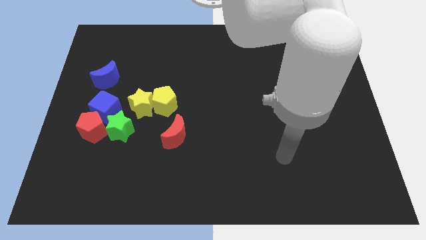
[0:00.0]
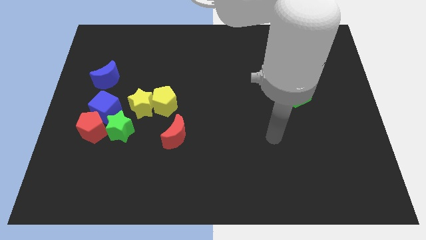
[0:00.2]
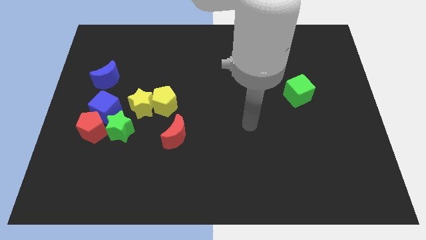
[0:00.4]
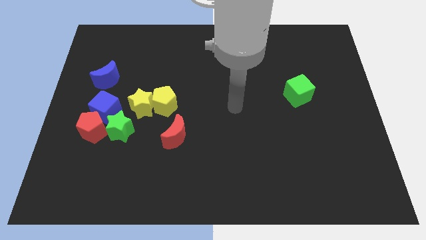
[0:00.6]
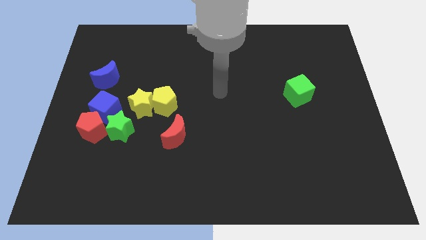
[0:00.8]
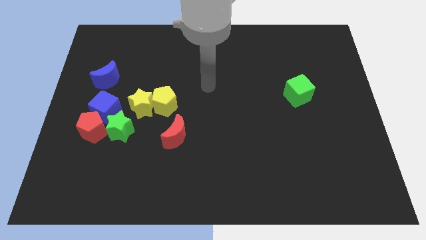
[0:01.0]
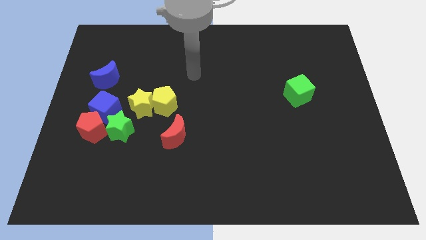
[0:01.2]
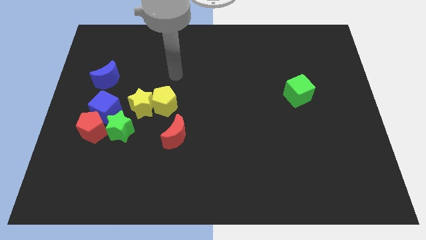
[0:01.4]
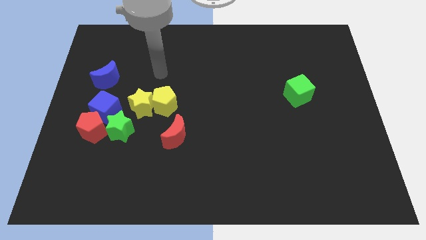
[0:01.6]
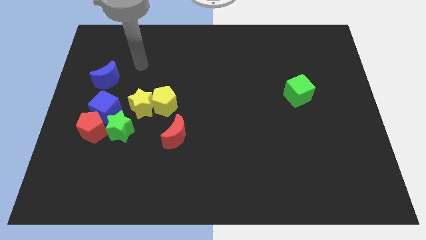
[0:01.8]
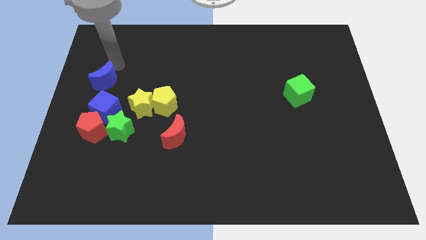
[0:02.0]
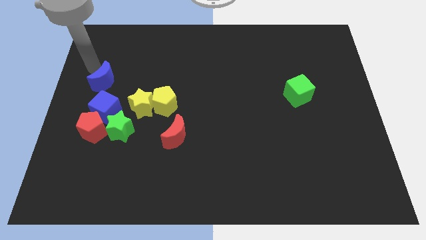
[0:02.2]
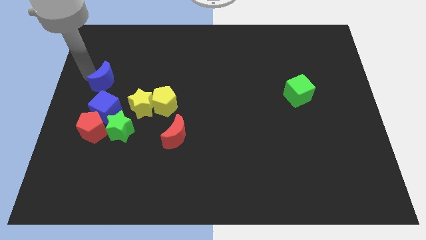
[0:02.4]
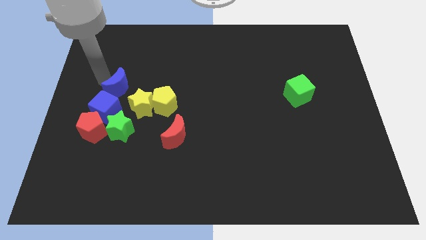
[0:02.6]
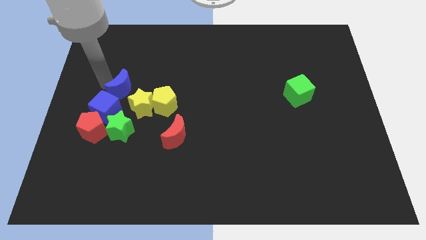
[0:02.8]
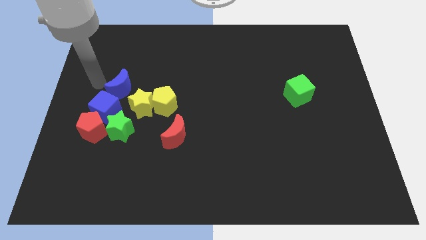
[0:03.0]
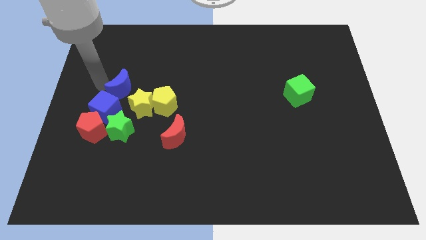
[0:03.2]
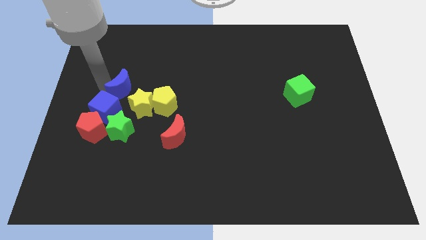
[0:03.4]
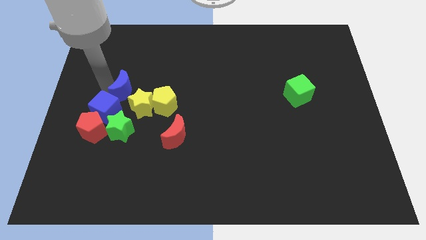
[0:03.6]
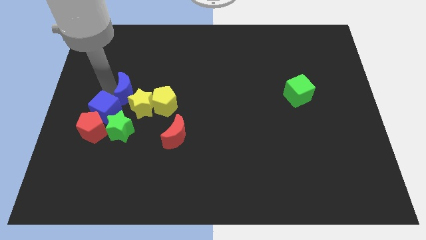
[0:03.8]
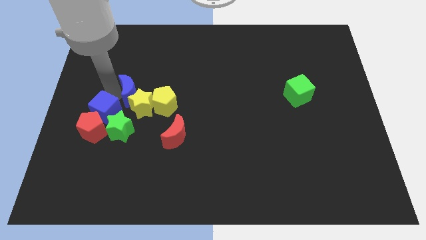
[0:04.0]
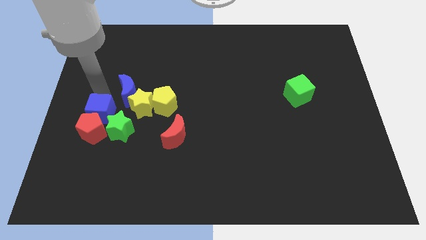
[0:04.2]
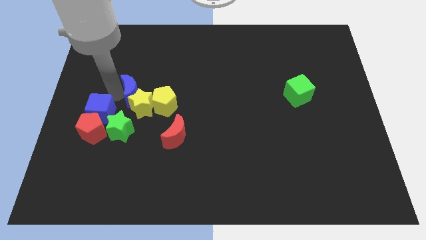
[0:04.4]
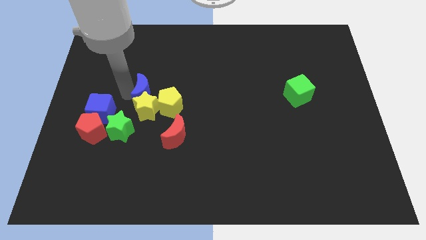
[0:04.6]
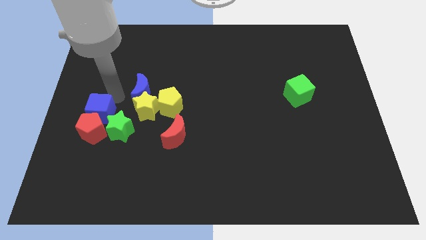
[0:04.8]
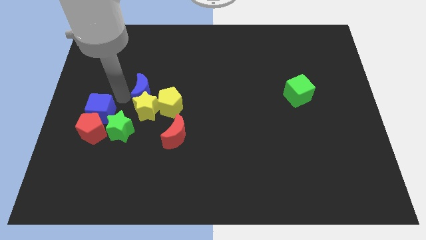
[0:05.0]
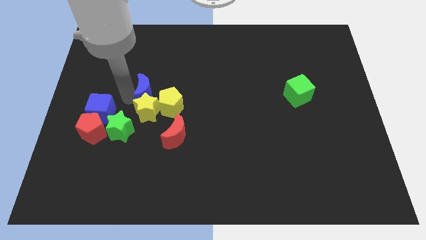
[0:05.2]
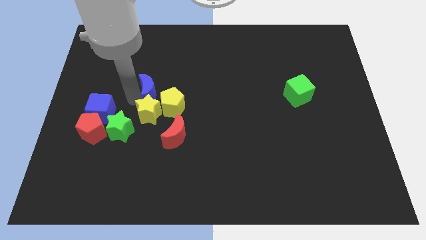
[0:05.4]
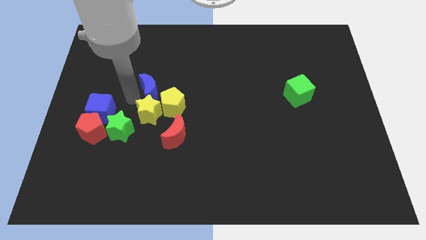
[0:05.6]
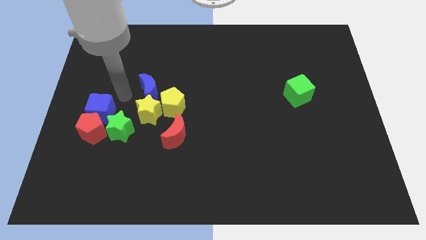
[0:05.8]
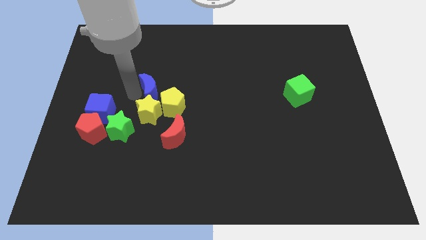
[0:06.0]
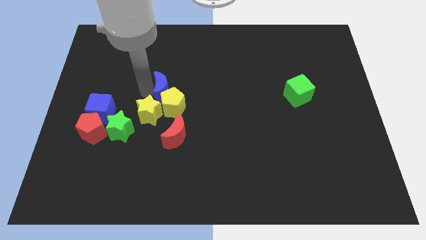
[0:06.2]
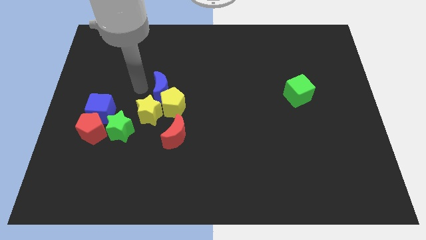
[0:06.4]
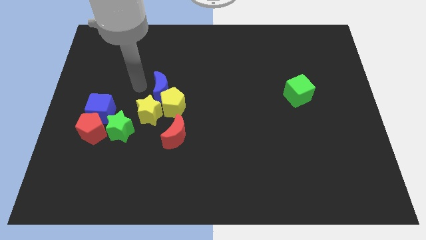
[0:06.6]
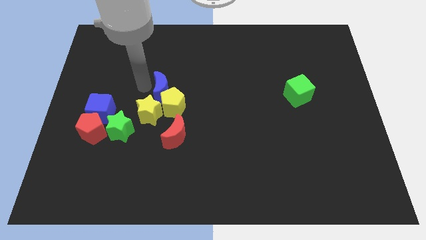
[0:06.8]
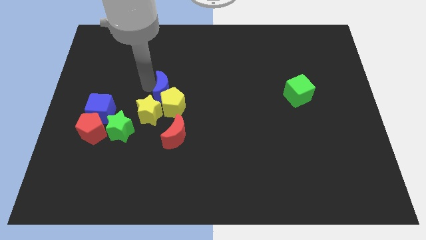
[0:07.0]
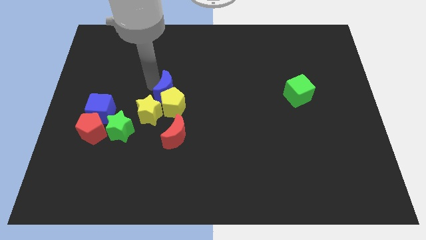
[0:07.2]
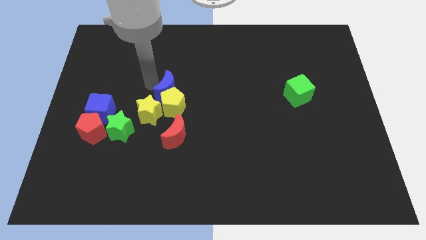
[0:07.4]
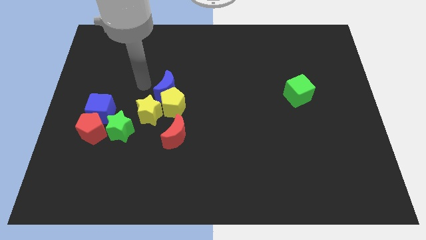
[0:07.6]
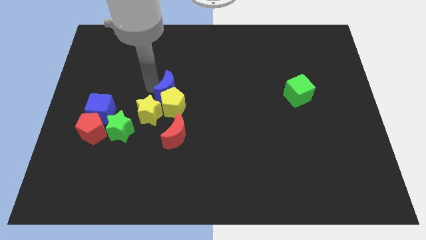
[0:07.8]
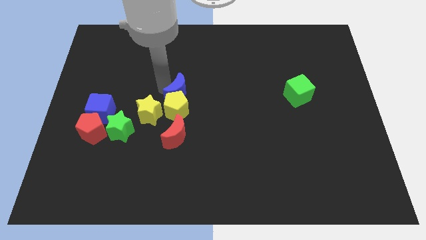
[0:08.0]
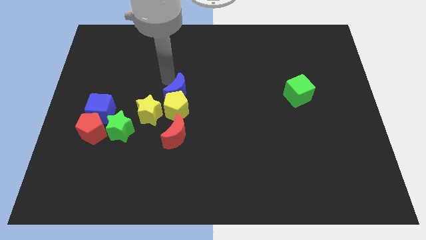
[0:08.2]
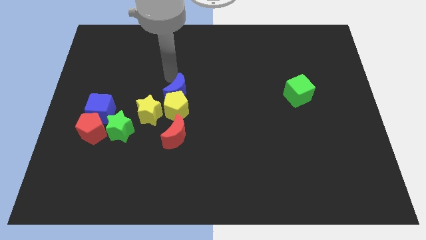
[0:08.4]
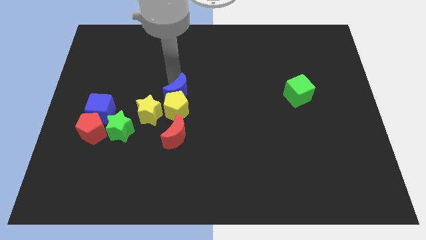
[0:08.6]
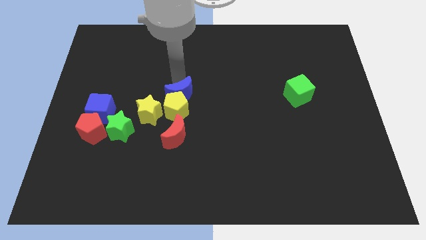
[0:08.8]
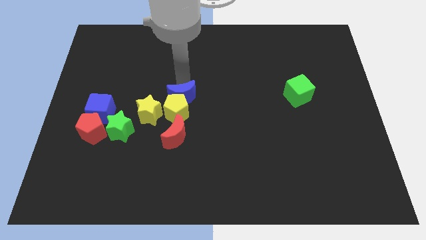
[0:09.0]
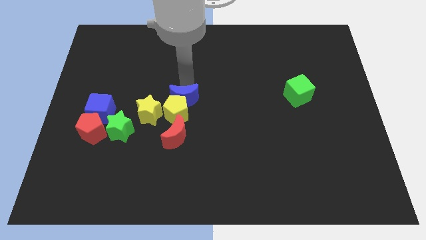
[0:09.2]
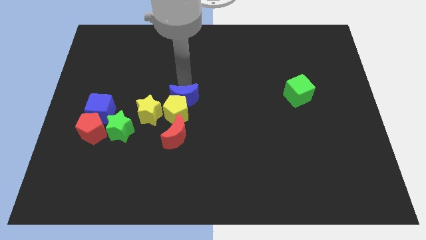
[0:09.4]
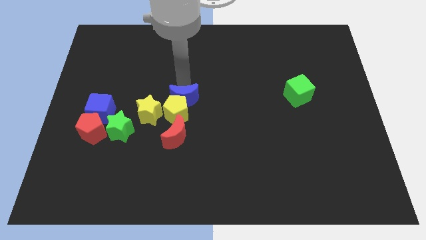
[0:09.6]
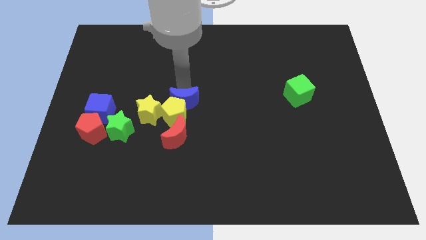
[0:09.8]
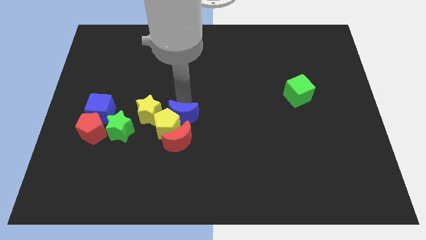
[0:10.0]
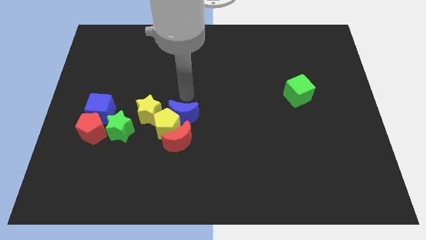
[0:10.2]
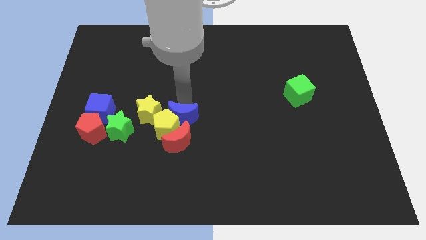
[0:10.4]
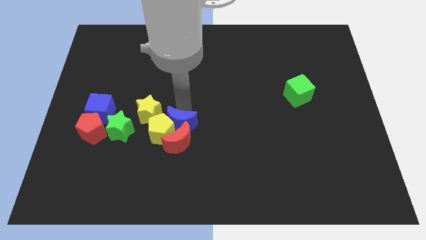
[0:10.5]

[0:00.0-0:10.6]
put the blue moon towards the red moon

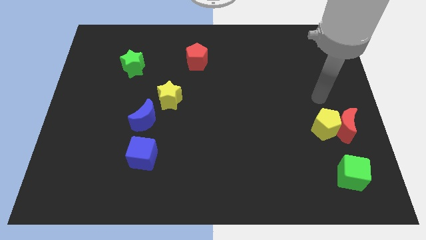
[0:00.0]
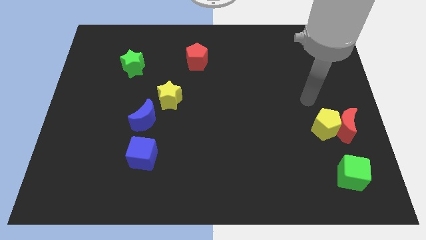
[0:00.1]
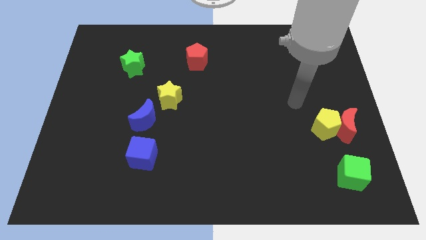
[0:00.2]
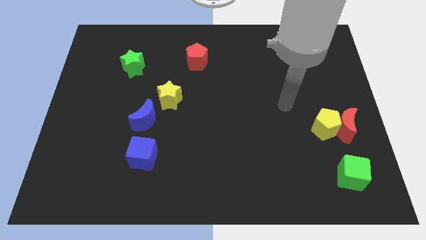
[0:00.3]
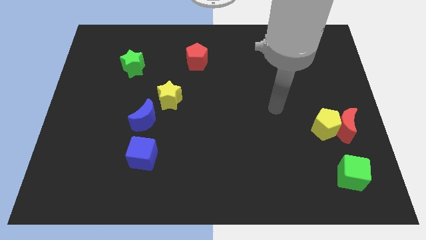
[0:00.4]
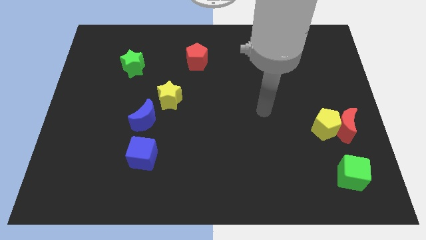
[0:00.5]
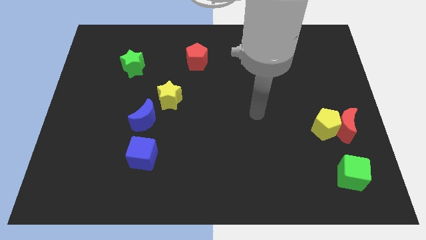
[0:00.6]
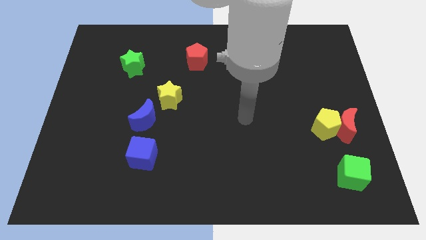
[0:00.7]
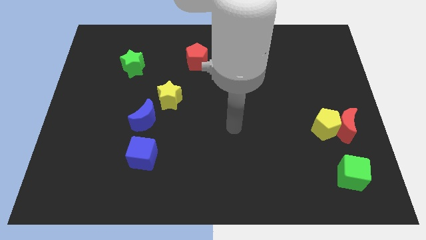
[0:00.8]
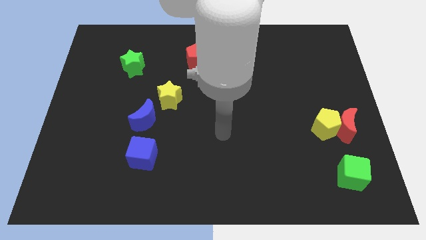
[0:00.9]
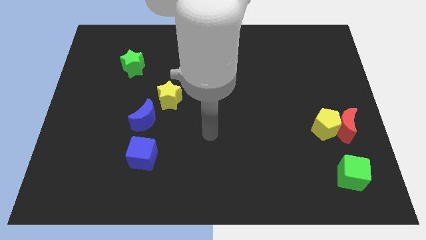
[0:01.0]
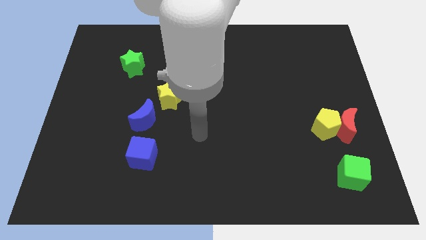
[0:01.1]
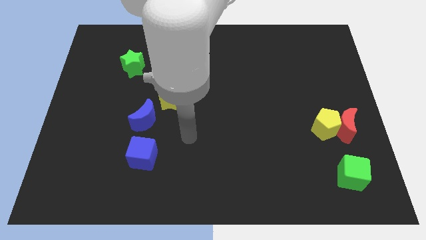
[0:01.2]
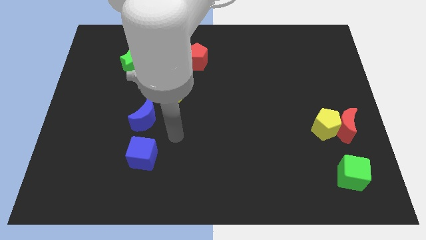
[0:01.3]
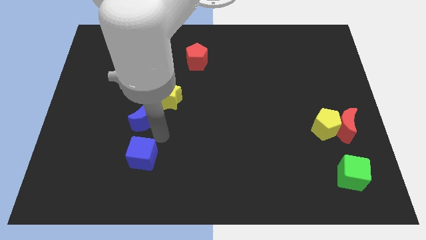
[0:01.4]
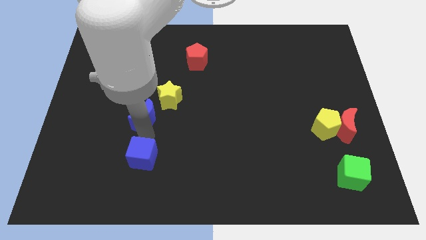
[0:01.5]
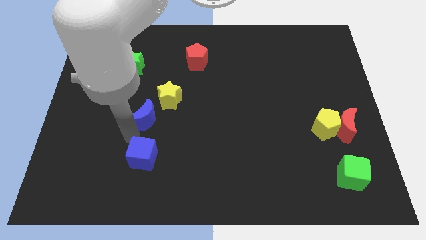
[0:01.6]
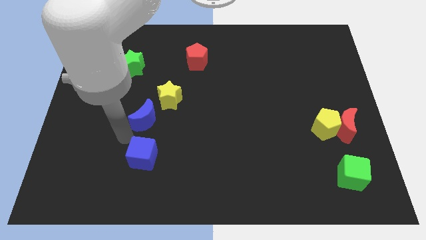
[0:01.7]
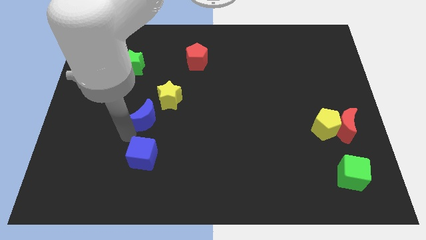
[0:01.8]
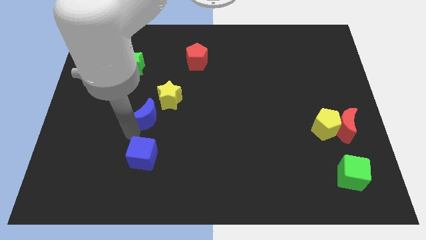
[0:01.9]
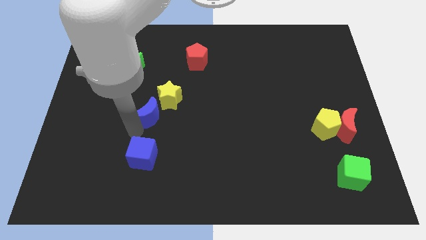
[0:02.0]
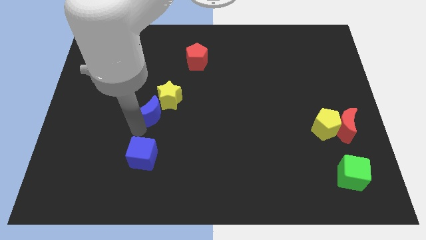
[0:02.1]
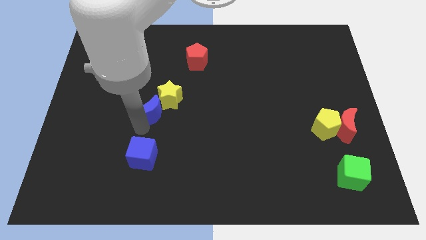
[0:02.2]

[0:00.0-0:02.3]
push the blue moon to the yellow star
